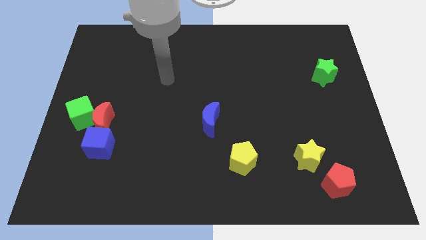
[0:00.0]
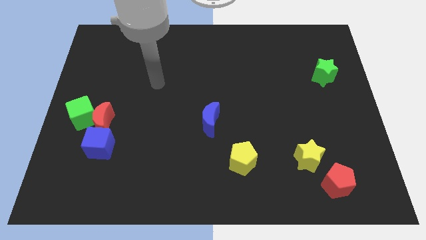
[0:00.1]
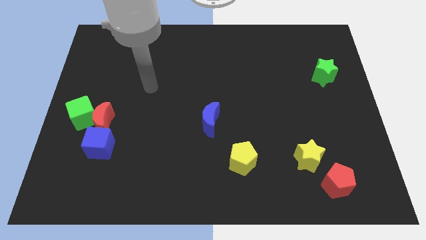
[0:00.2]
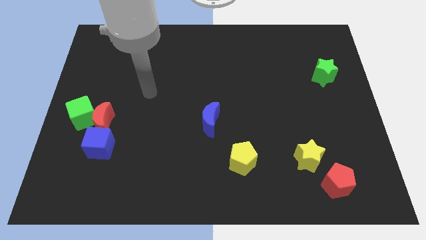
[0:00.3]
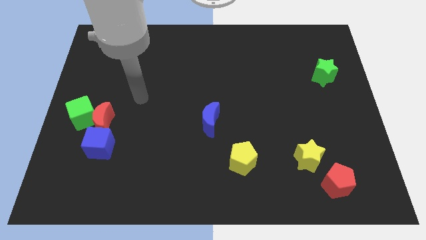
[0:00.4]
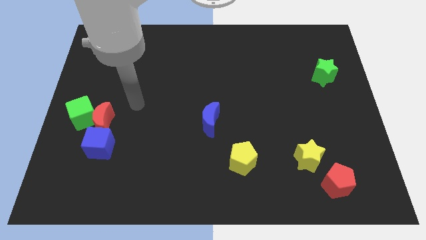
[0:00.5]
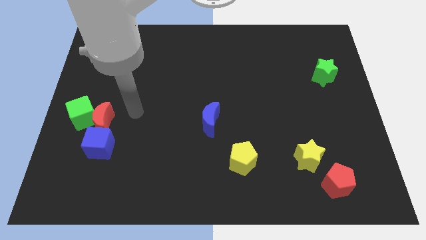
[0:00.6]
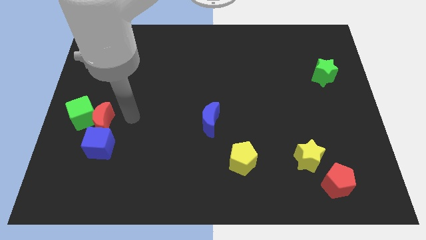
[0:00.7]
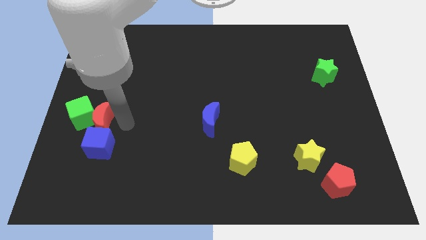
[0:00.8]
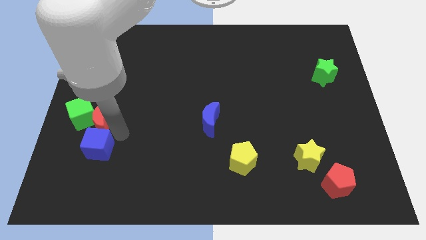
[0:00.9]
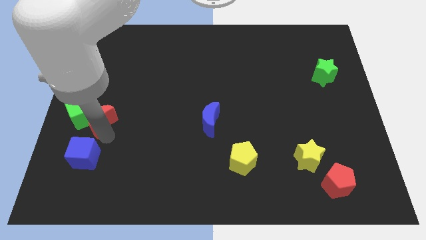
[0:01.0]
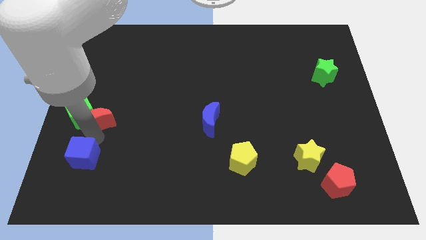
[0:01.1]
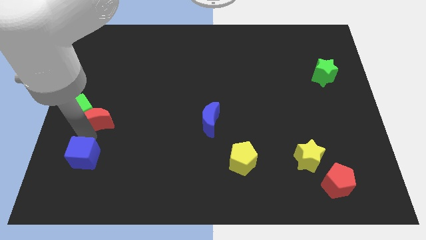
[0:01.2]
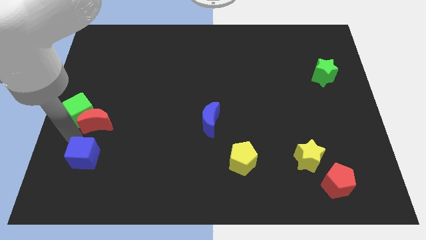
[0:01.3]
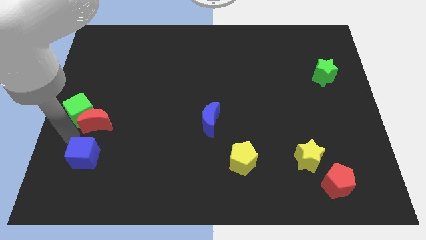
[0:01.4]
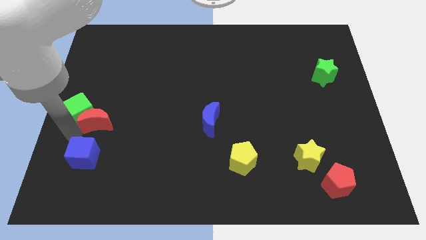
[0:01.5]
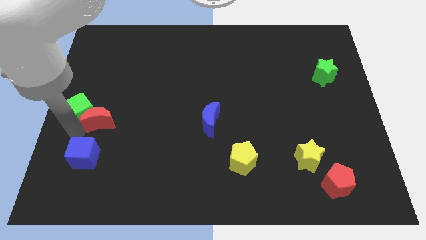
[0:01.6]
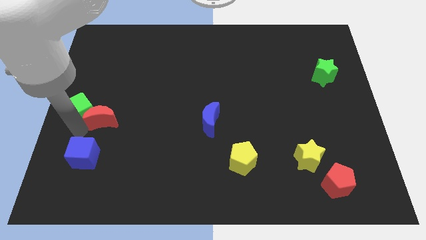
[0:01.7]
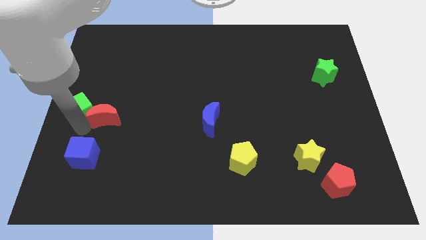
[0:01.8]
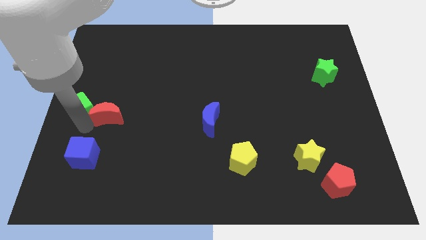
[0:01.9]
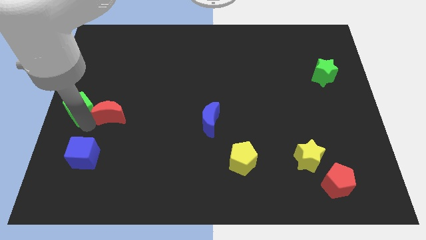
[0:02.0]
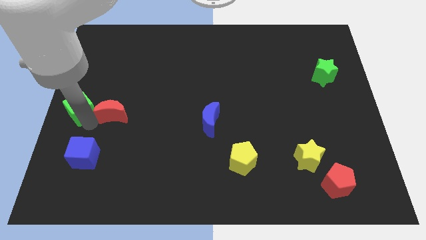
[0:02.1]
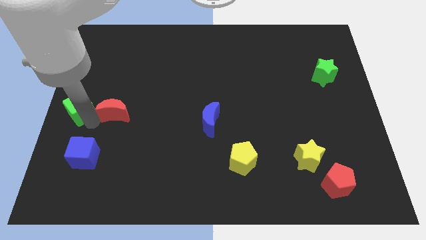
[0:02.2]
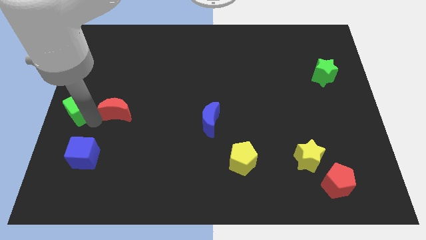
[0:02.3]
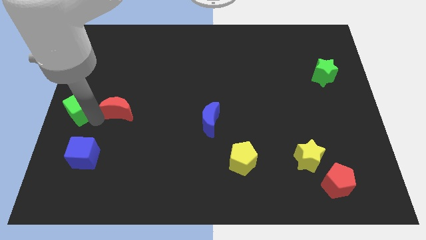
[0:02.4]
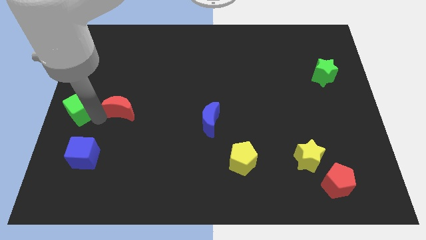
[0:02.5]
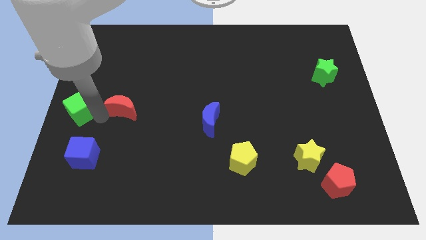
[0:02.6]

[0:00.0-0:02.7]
move the red moon away from the green cube and blue cube

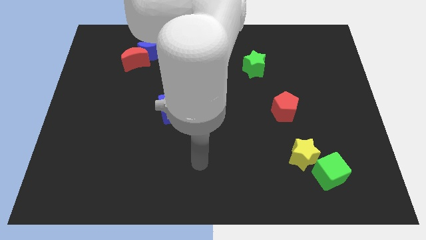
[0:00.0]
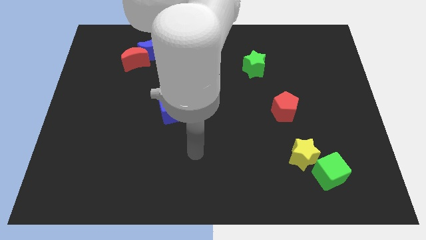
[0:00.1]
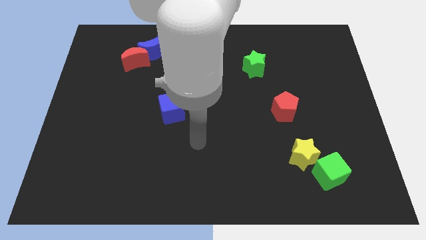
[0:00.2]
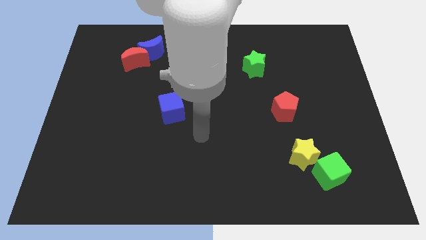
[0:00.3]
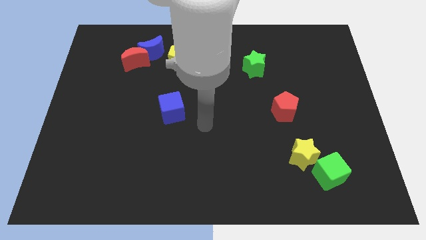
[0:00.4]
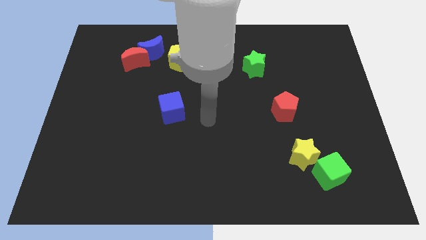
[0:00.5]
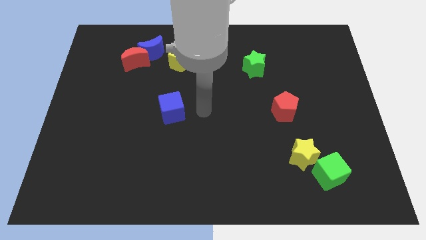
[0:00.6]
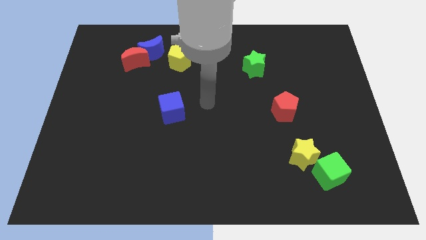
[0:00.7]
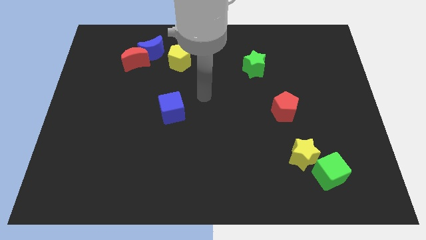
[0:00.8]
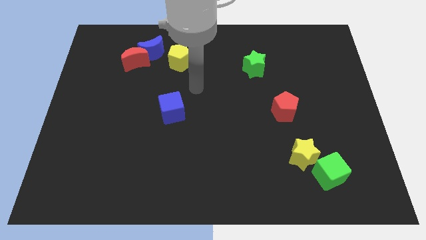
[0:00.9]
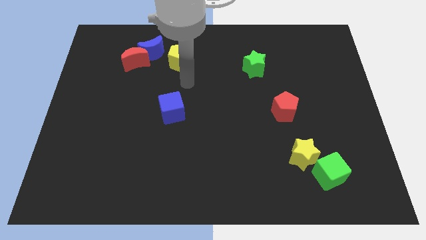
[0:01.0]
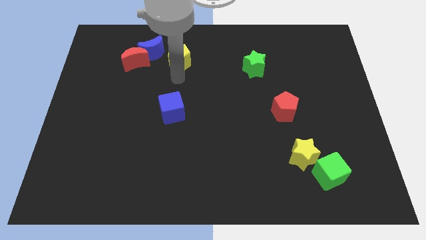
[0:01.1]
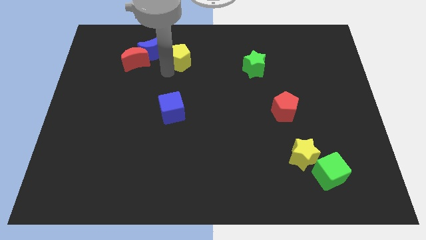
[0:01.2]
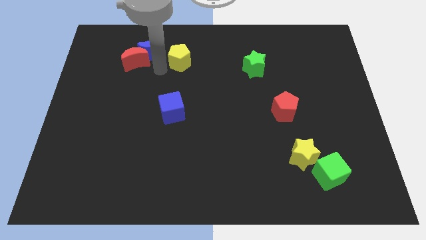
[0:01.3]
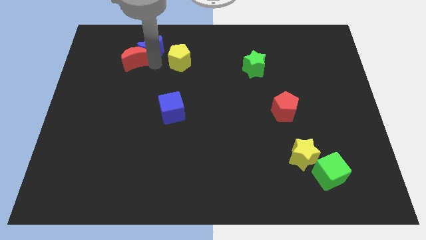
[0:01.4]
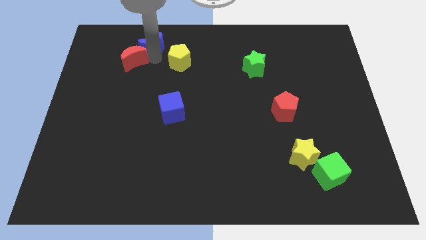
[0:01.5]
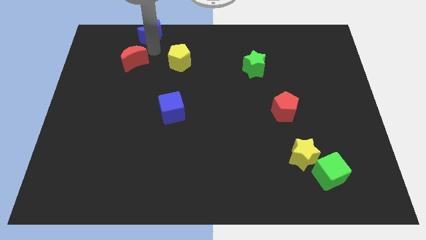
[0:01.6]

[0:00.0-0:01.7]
move the red moon away from the blue moon

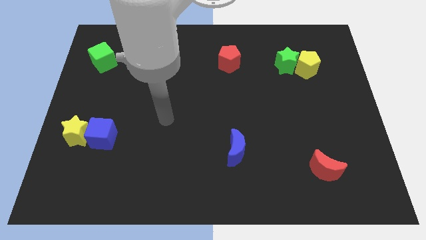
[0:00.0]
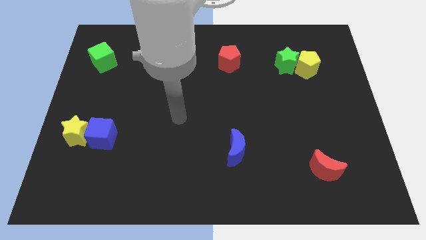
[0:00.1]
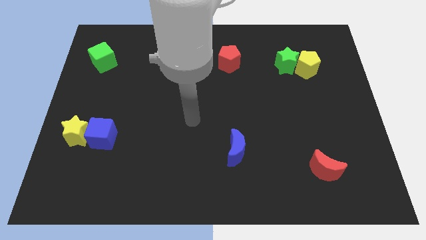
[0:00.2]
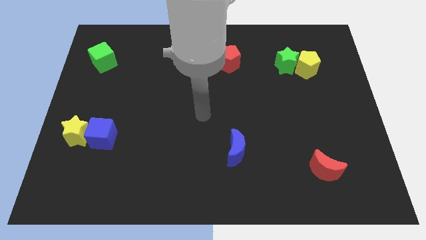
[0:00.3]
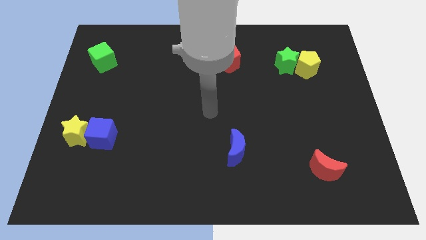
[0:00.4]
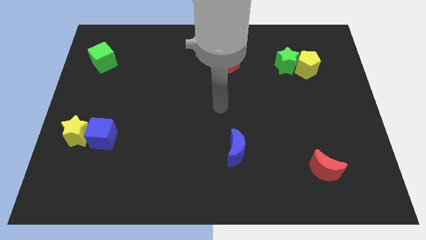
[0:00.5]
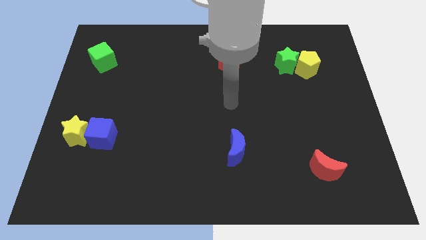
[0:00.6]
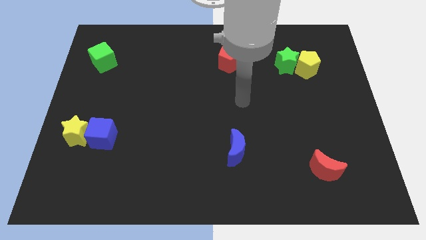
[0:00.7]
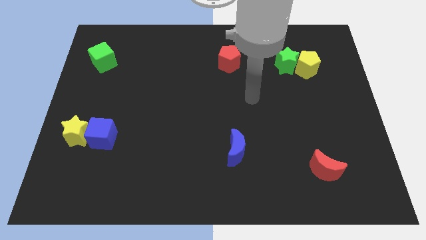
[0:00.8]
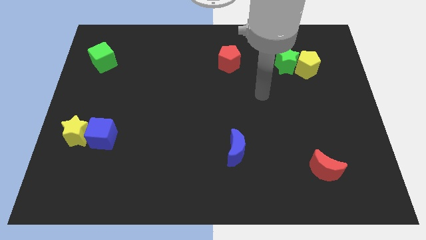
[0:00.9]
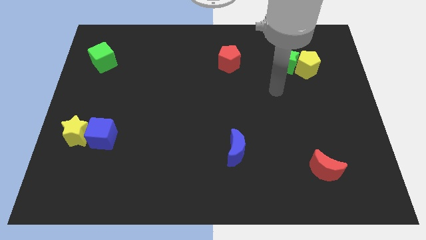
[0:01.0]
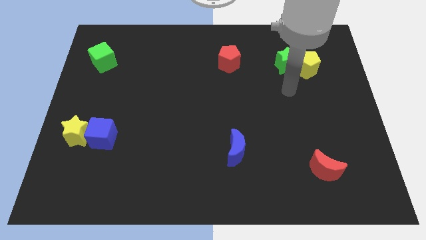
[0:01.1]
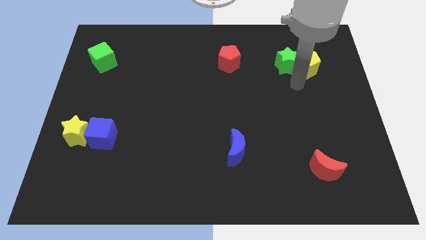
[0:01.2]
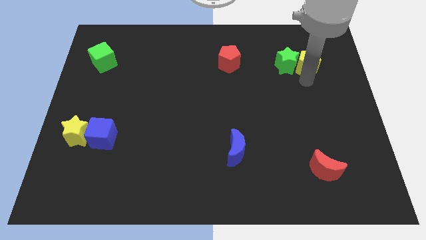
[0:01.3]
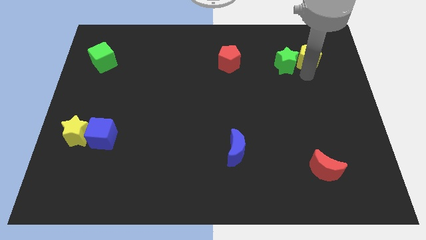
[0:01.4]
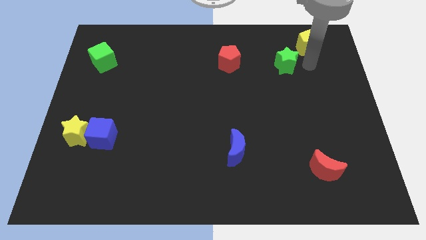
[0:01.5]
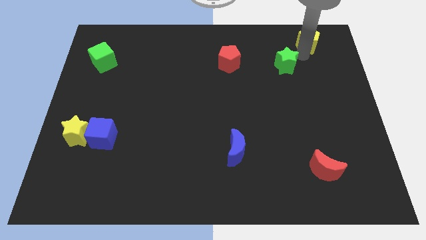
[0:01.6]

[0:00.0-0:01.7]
move the green star away from the yellow pentagon

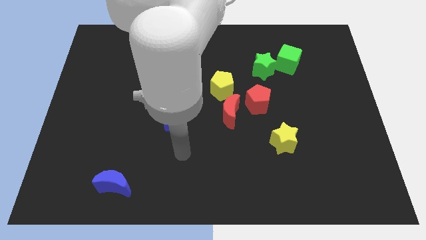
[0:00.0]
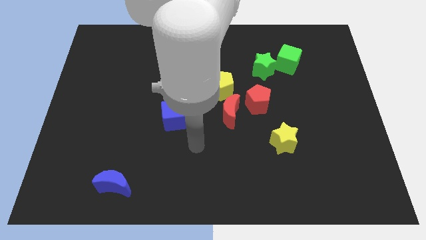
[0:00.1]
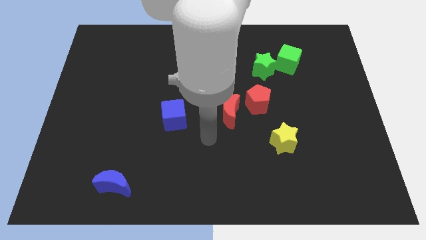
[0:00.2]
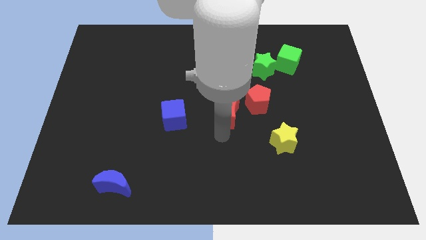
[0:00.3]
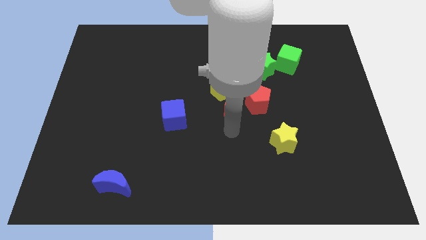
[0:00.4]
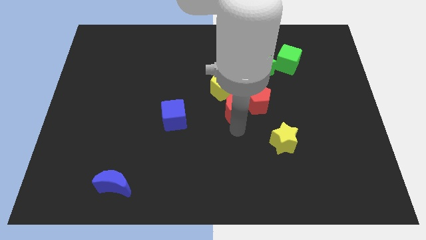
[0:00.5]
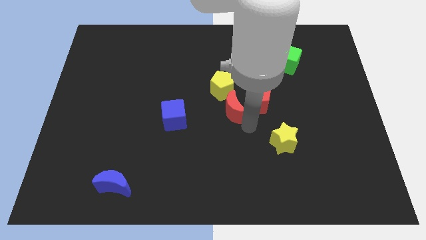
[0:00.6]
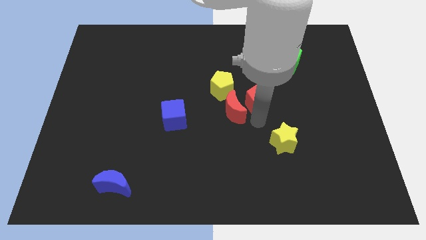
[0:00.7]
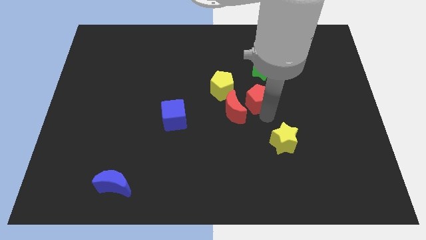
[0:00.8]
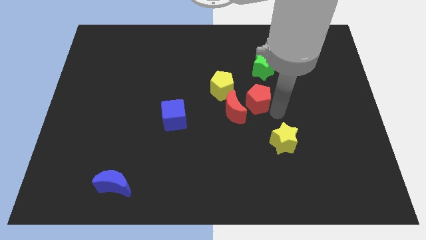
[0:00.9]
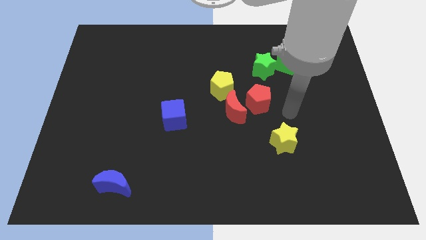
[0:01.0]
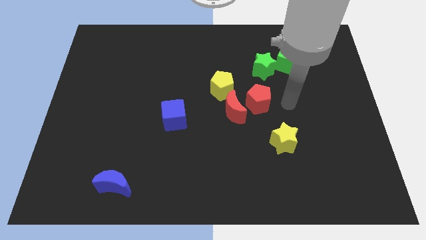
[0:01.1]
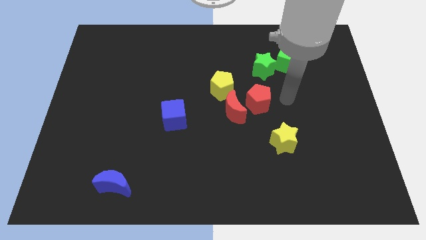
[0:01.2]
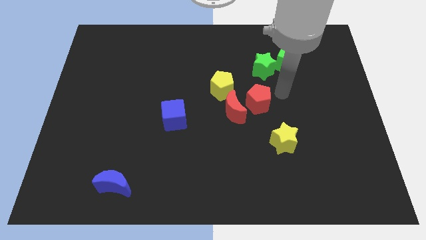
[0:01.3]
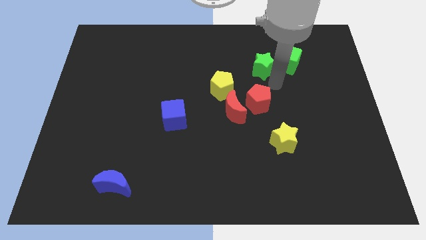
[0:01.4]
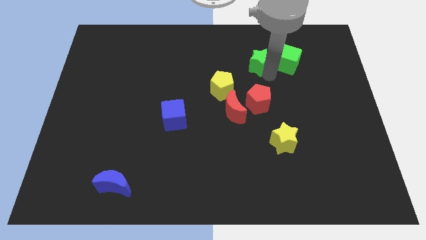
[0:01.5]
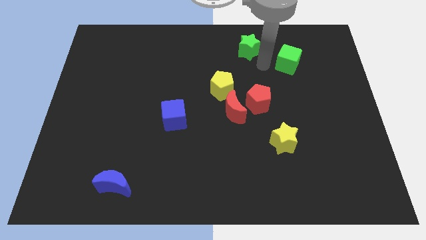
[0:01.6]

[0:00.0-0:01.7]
move the green cube away from the green star

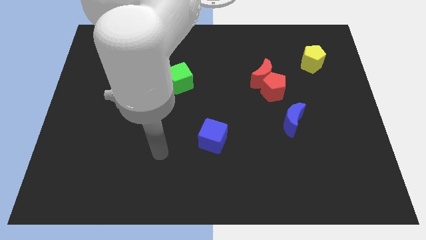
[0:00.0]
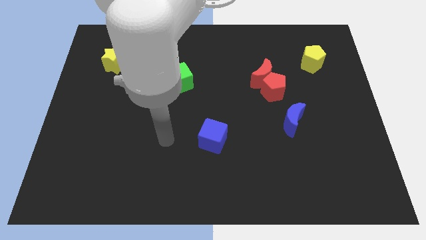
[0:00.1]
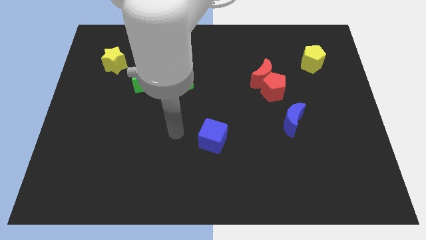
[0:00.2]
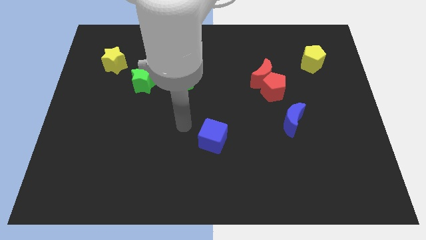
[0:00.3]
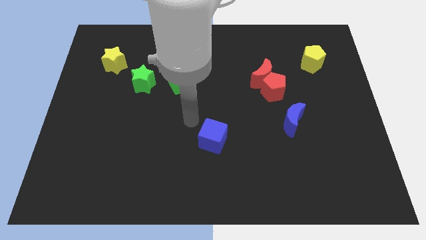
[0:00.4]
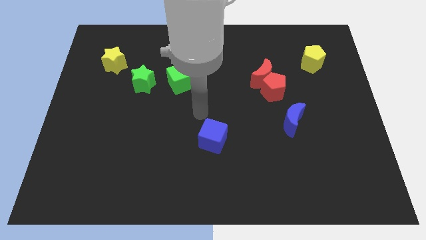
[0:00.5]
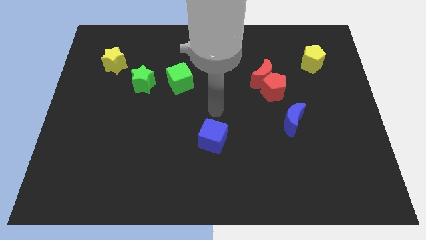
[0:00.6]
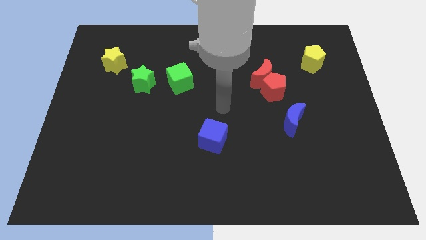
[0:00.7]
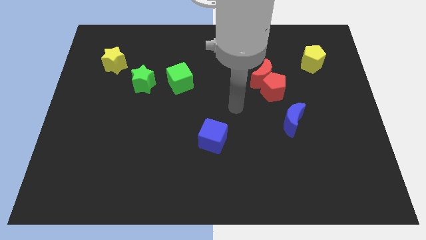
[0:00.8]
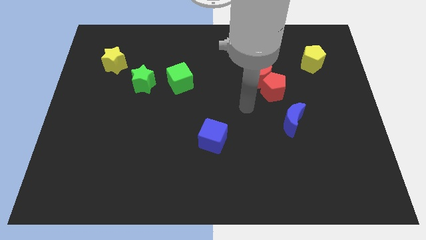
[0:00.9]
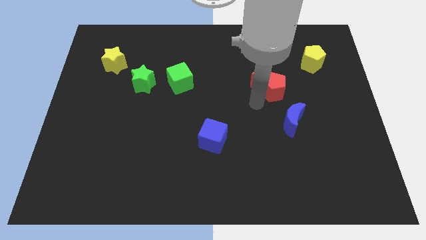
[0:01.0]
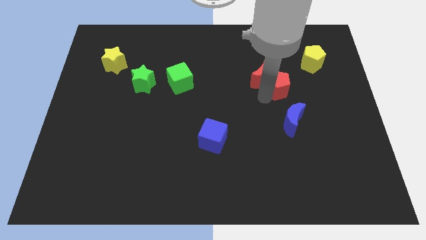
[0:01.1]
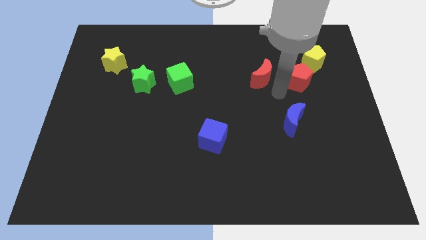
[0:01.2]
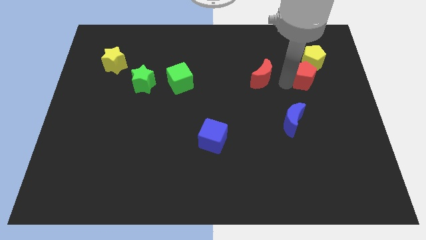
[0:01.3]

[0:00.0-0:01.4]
pull the red moon apart from the red pentagon

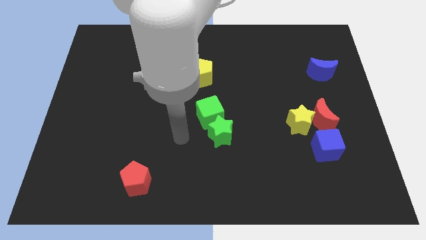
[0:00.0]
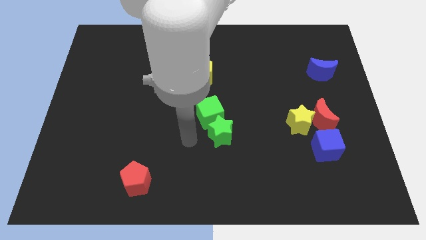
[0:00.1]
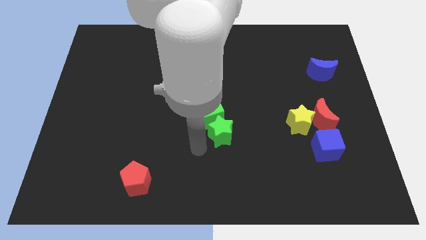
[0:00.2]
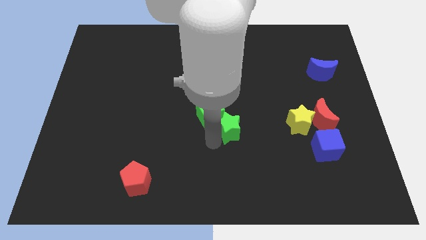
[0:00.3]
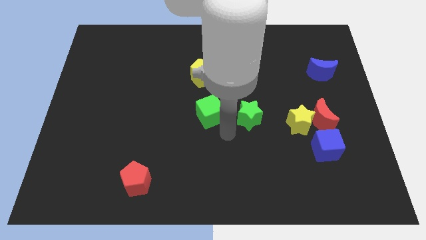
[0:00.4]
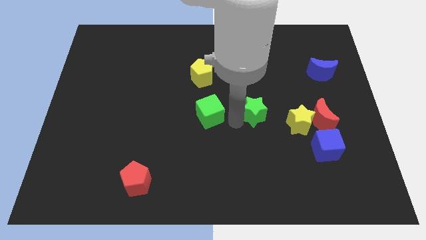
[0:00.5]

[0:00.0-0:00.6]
separate the green cube from the green star
